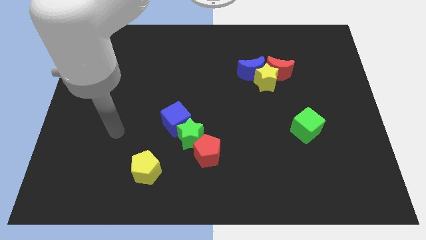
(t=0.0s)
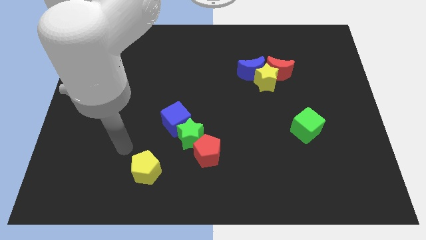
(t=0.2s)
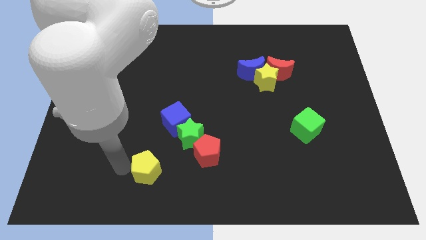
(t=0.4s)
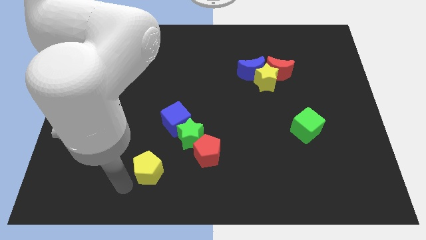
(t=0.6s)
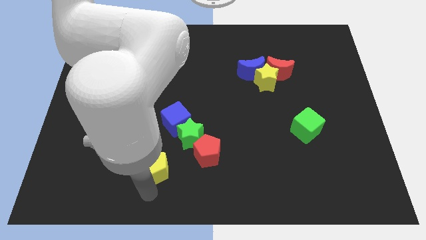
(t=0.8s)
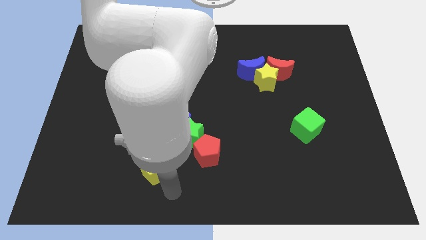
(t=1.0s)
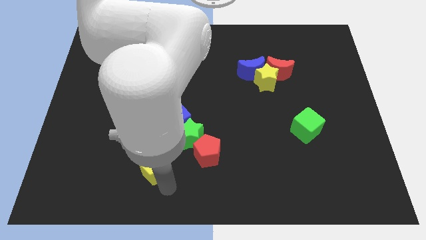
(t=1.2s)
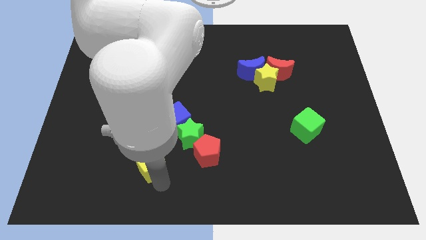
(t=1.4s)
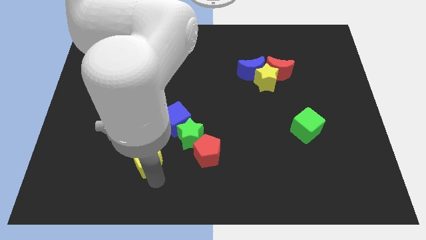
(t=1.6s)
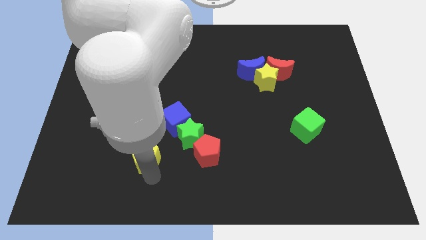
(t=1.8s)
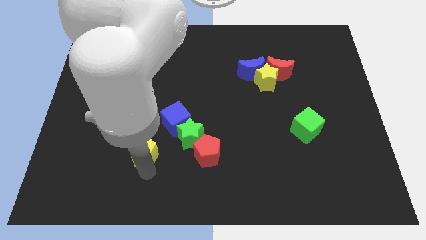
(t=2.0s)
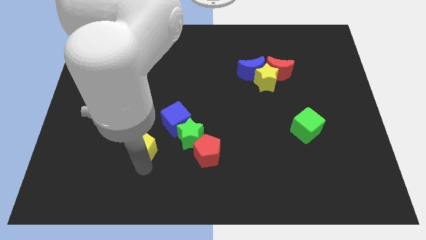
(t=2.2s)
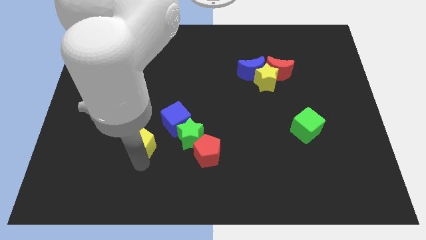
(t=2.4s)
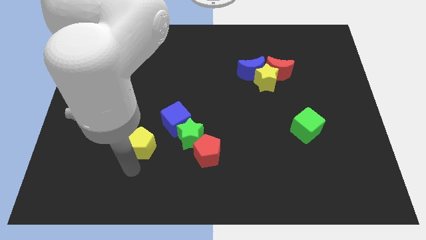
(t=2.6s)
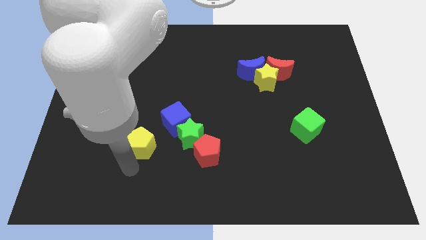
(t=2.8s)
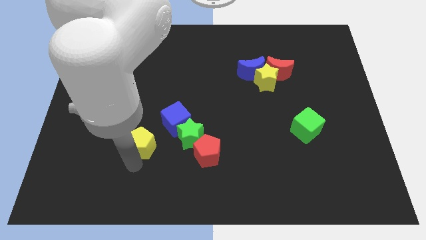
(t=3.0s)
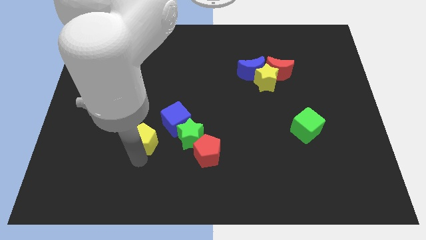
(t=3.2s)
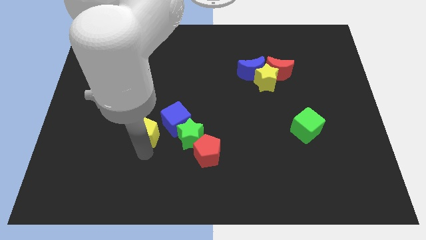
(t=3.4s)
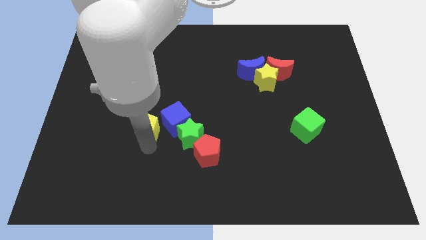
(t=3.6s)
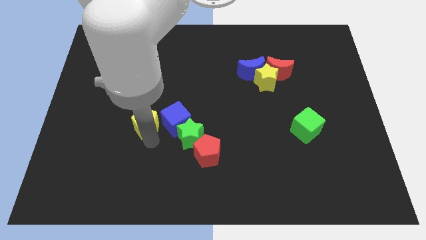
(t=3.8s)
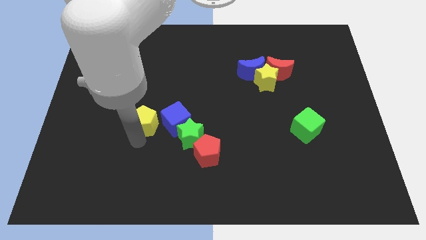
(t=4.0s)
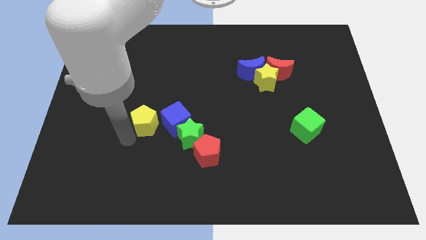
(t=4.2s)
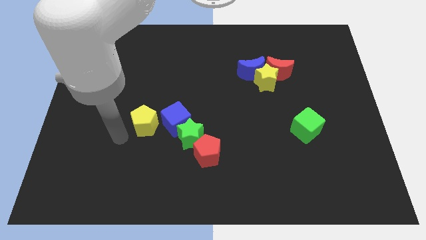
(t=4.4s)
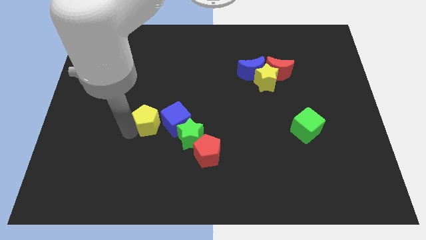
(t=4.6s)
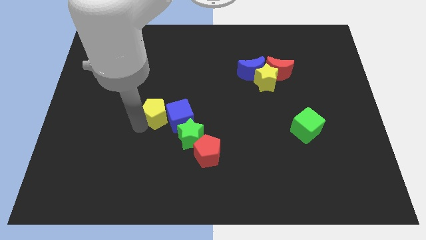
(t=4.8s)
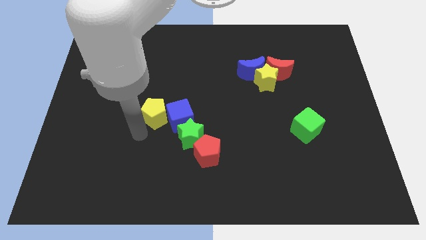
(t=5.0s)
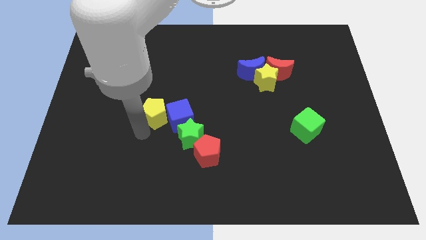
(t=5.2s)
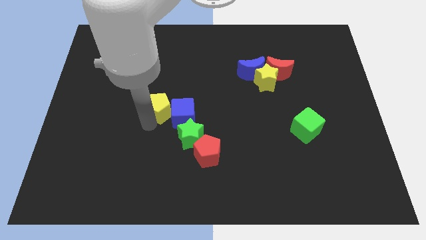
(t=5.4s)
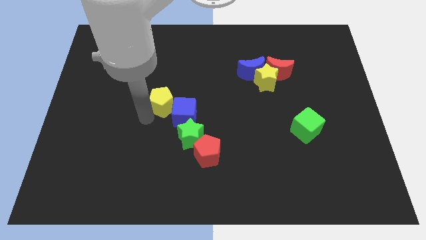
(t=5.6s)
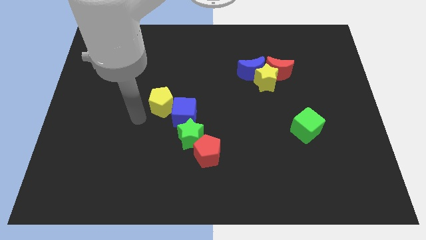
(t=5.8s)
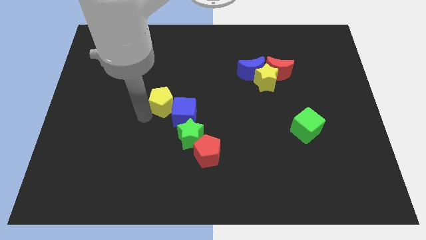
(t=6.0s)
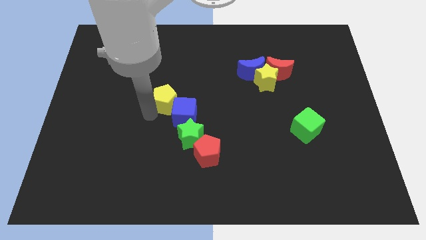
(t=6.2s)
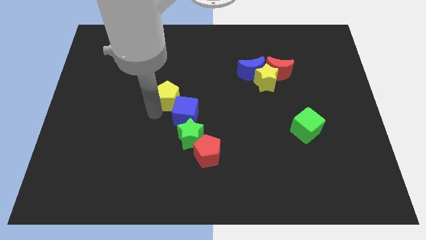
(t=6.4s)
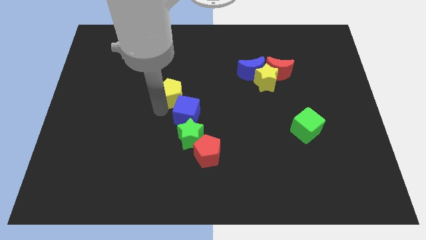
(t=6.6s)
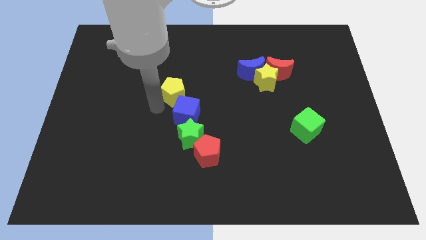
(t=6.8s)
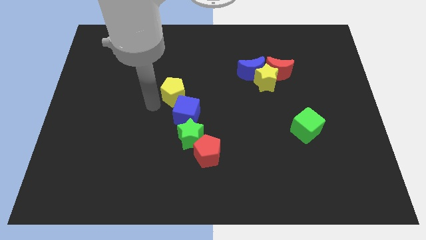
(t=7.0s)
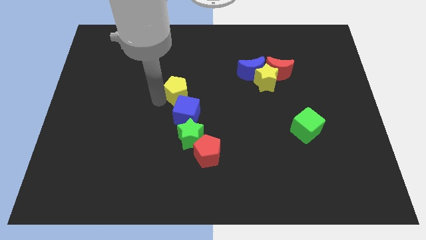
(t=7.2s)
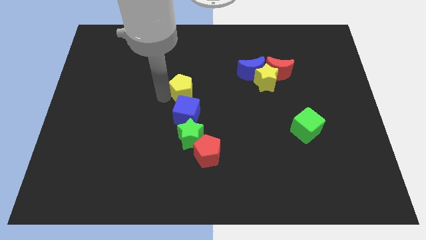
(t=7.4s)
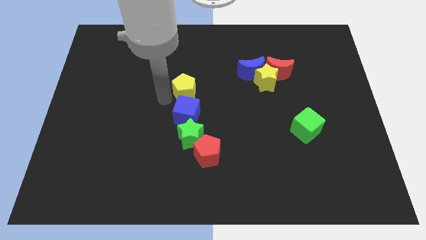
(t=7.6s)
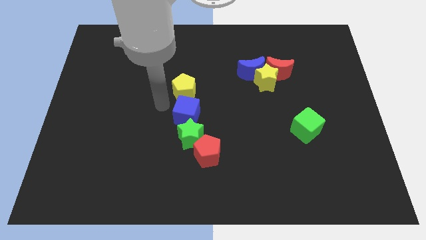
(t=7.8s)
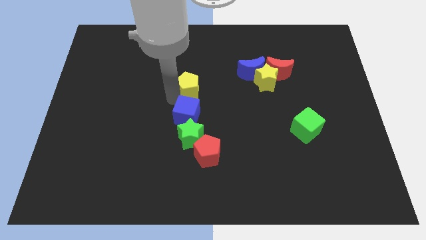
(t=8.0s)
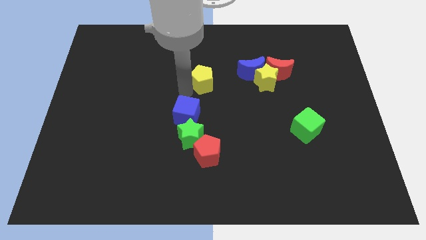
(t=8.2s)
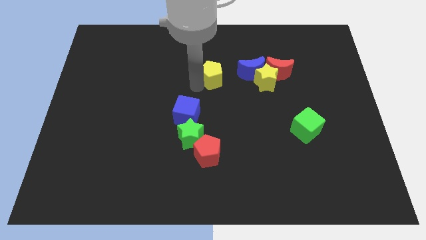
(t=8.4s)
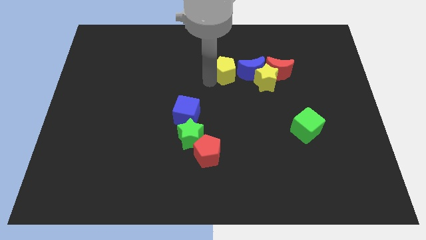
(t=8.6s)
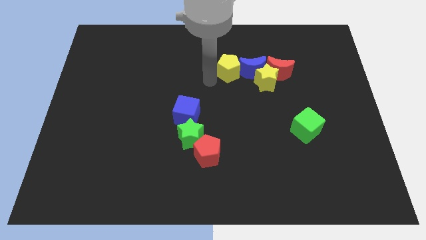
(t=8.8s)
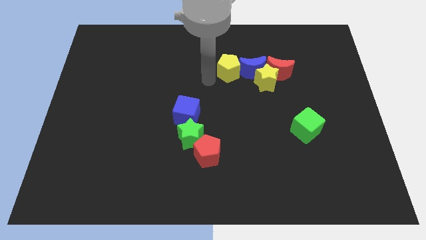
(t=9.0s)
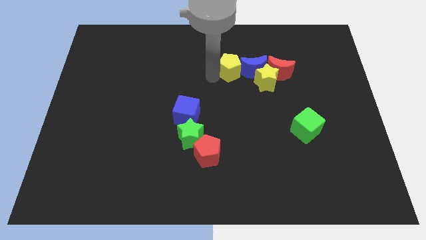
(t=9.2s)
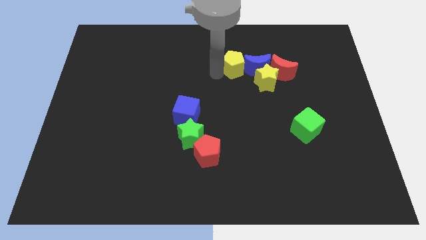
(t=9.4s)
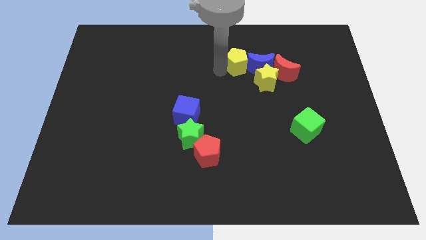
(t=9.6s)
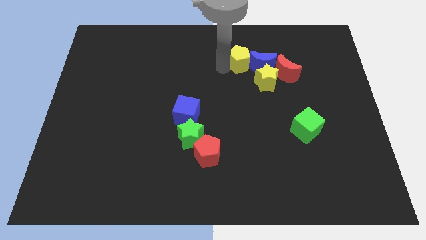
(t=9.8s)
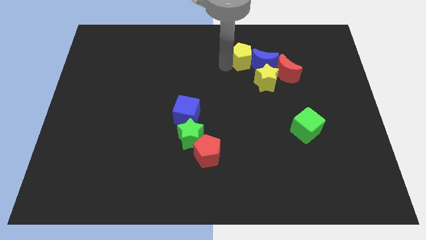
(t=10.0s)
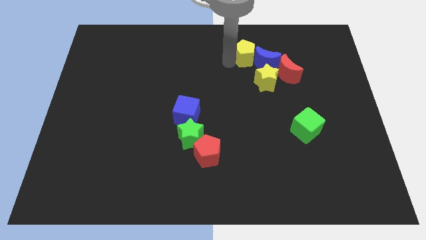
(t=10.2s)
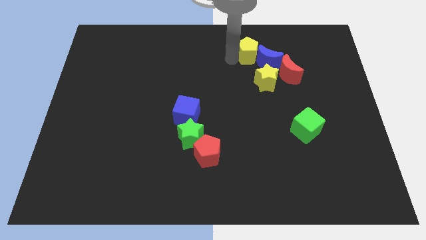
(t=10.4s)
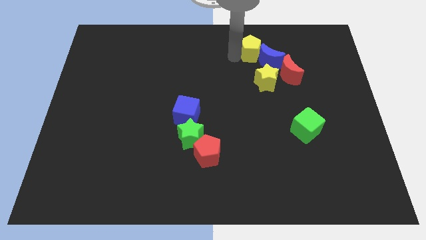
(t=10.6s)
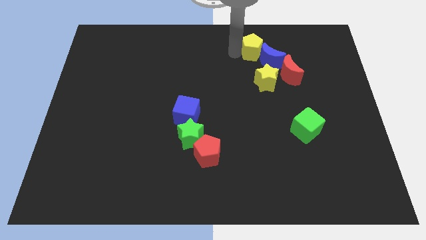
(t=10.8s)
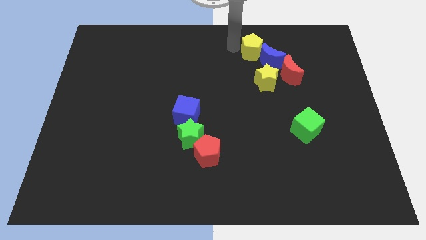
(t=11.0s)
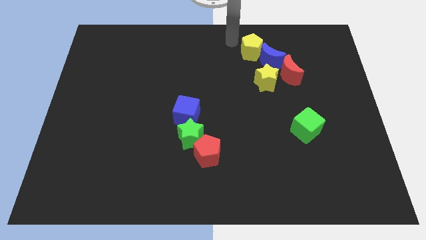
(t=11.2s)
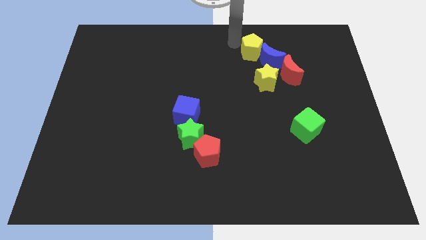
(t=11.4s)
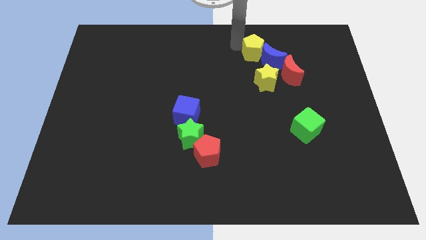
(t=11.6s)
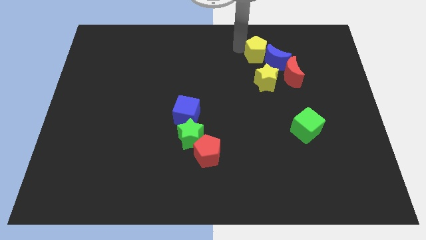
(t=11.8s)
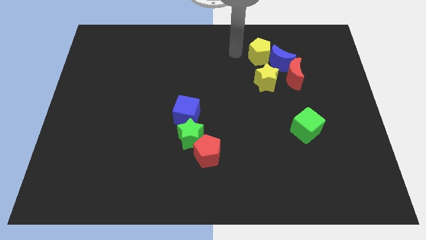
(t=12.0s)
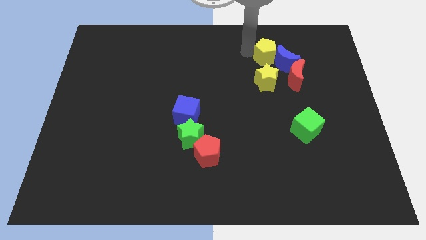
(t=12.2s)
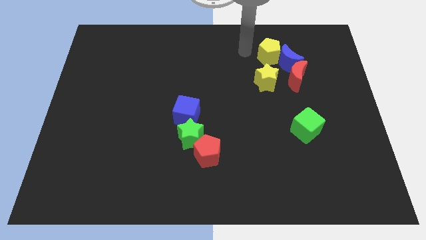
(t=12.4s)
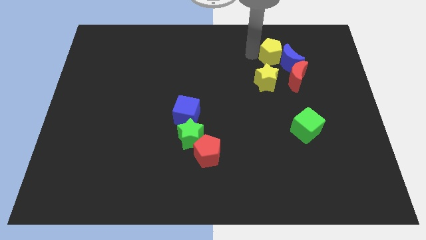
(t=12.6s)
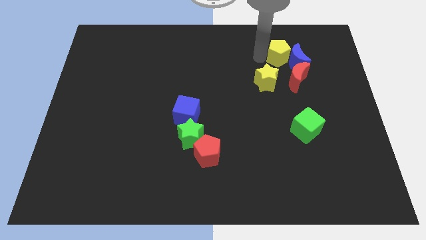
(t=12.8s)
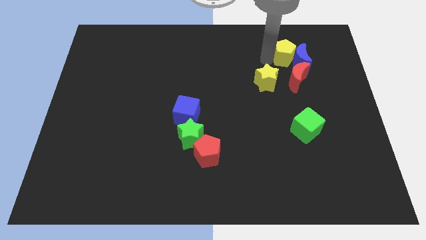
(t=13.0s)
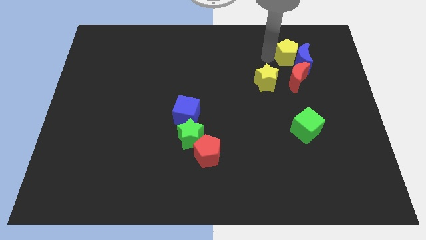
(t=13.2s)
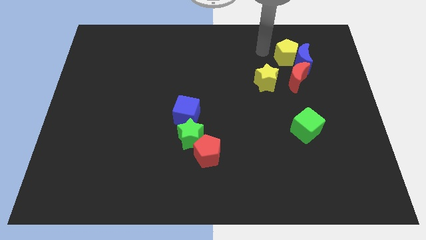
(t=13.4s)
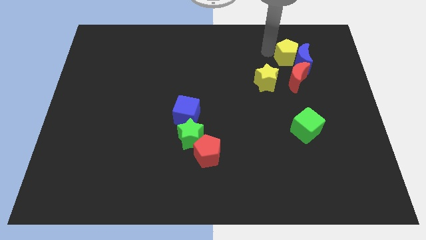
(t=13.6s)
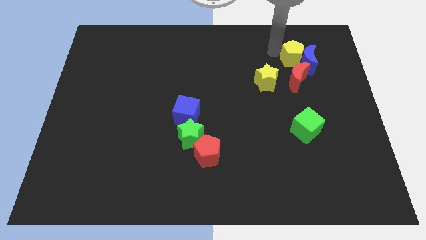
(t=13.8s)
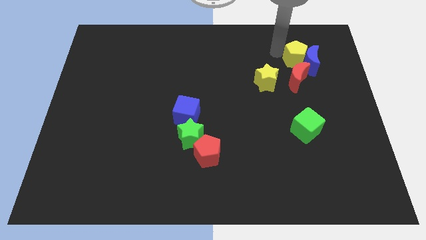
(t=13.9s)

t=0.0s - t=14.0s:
put the yellow pentagon diagonally up and to the right of the red moon

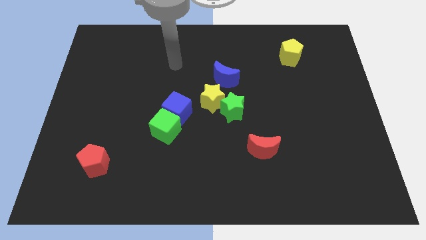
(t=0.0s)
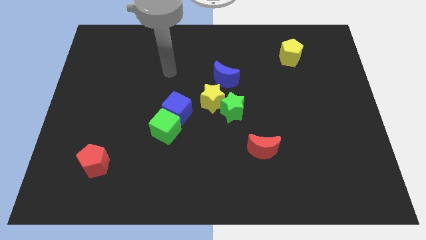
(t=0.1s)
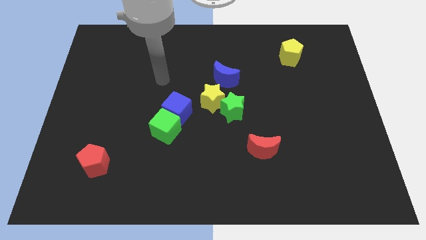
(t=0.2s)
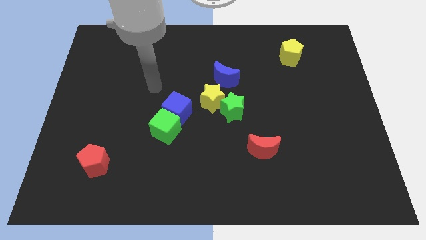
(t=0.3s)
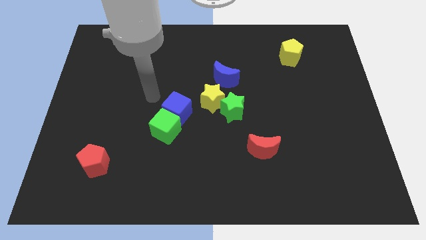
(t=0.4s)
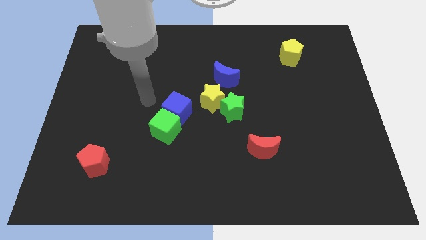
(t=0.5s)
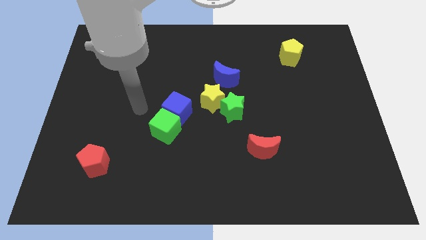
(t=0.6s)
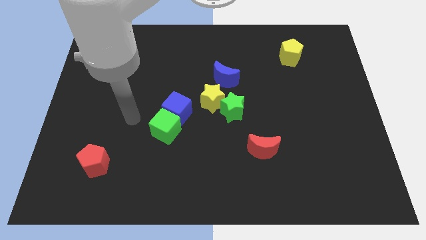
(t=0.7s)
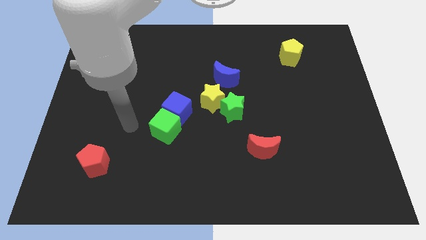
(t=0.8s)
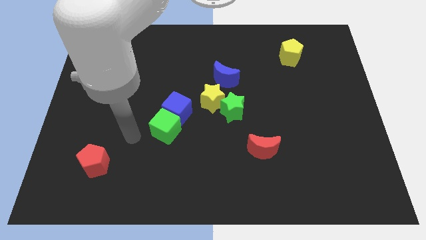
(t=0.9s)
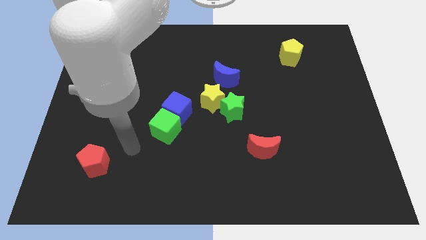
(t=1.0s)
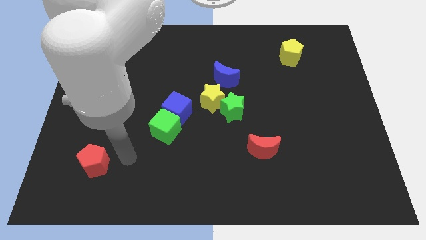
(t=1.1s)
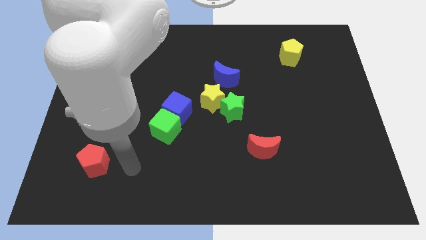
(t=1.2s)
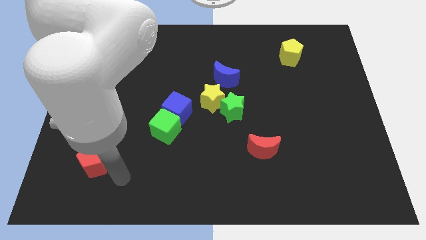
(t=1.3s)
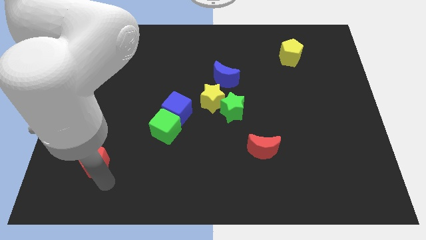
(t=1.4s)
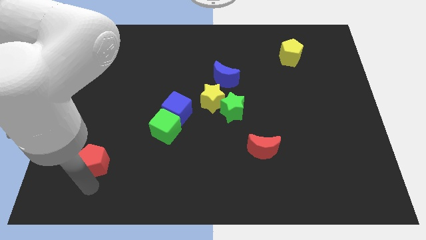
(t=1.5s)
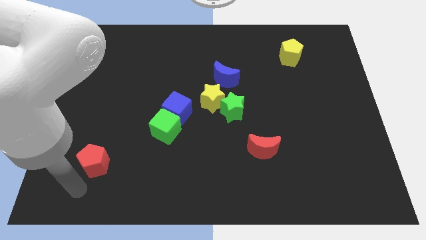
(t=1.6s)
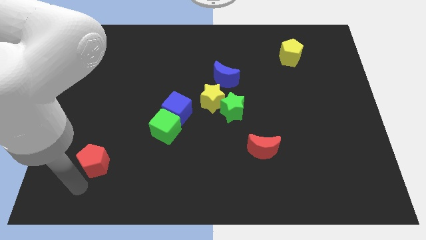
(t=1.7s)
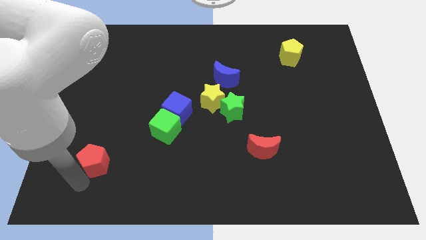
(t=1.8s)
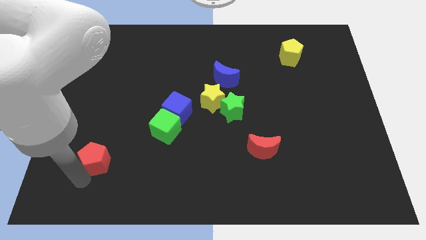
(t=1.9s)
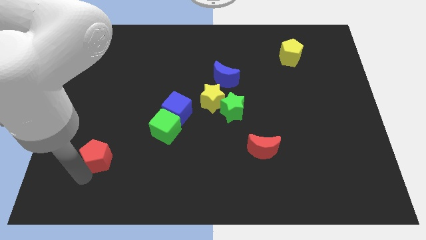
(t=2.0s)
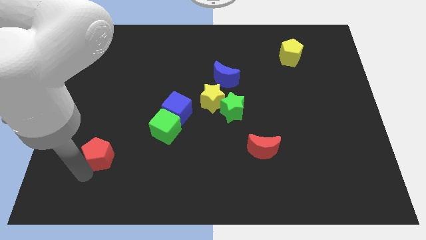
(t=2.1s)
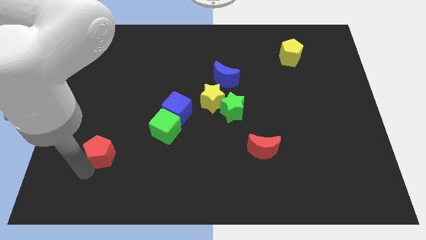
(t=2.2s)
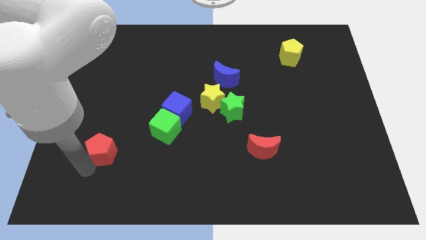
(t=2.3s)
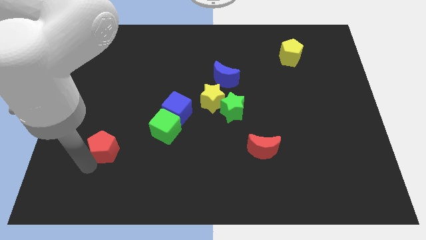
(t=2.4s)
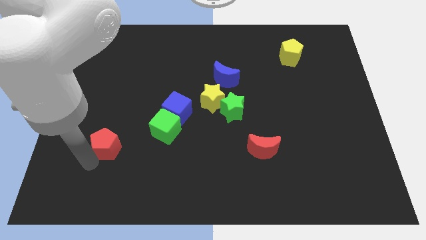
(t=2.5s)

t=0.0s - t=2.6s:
push the red pentagon left of the green cube
